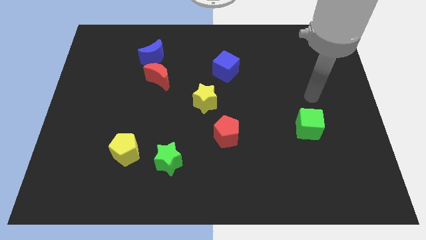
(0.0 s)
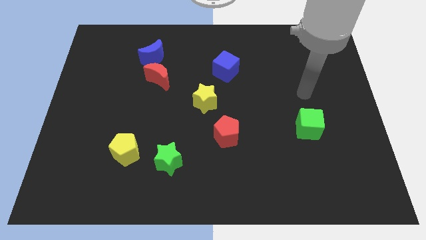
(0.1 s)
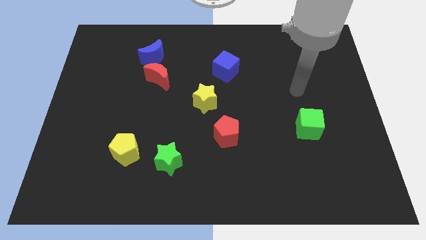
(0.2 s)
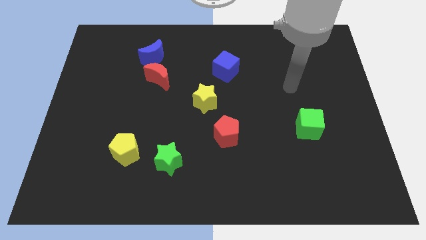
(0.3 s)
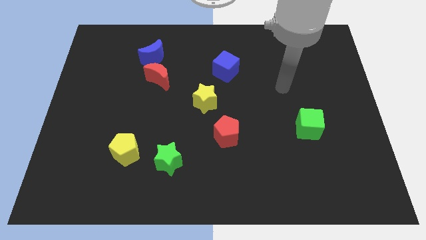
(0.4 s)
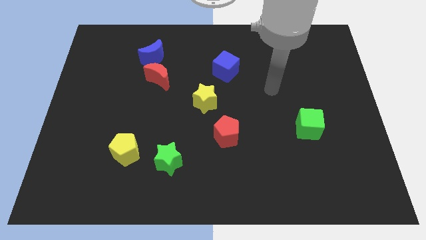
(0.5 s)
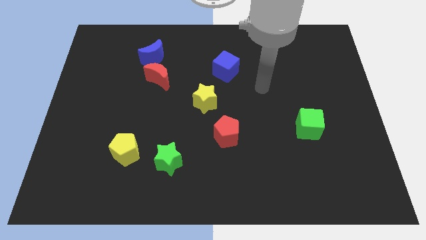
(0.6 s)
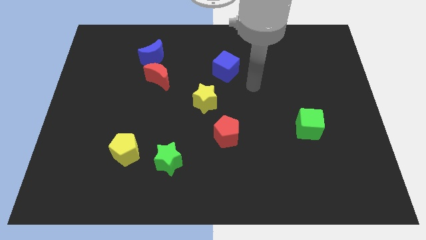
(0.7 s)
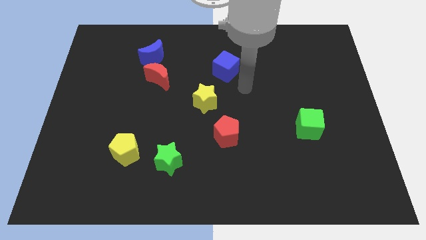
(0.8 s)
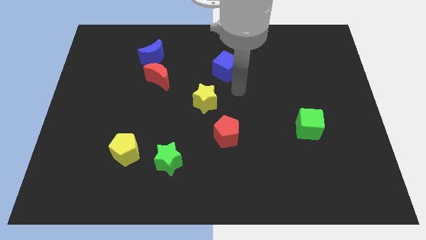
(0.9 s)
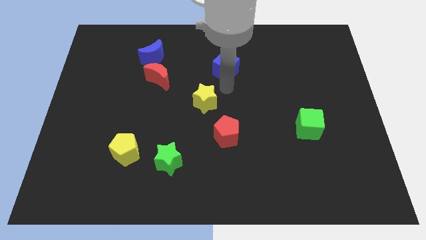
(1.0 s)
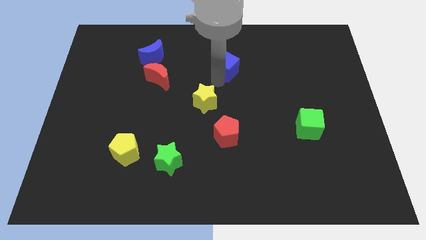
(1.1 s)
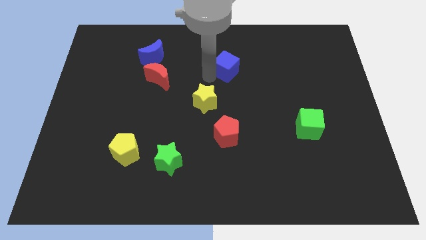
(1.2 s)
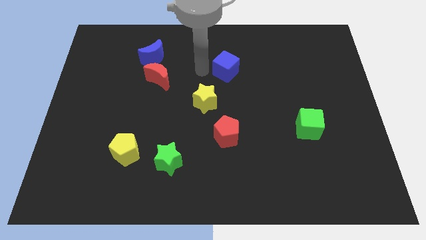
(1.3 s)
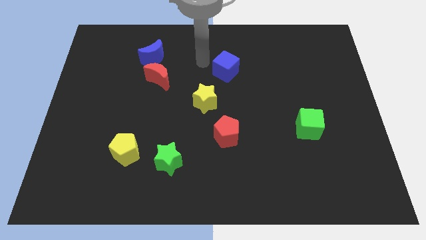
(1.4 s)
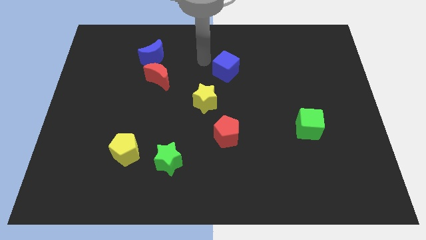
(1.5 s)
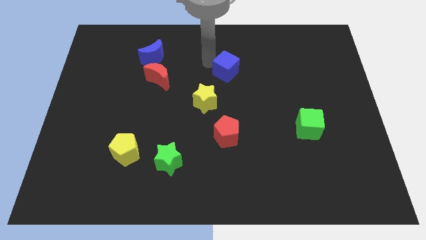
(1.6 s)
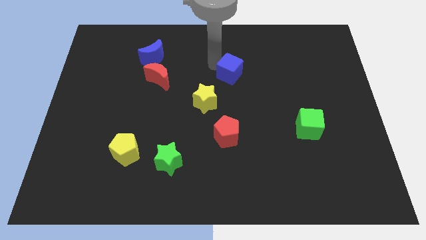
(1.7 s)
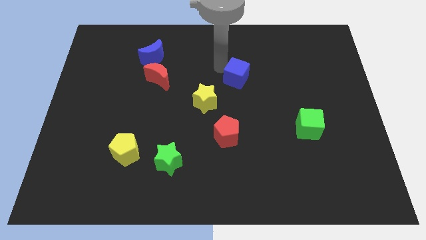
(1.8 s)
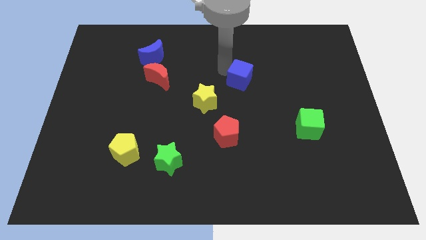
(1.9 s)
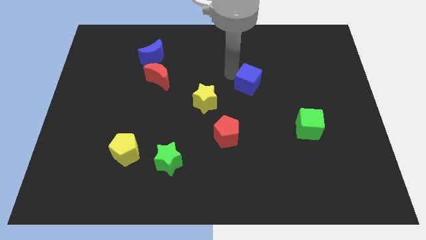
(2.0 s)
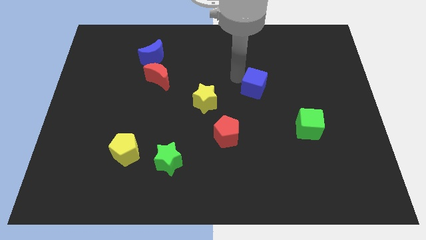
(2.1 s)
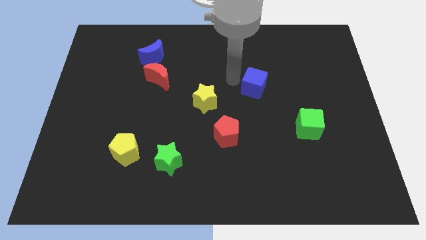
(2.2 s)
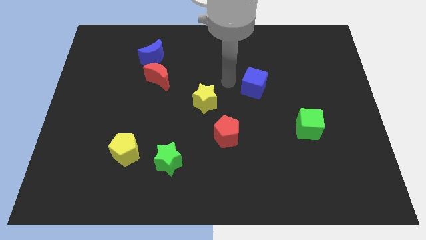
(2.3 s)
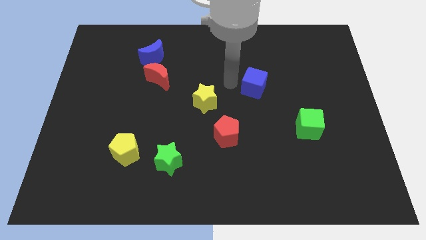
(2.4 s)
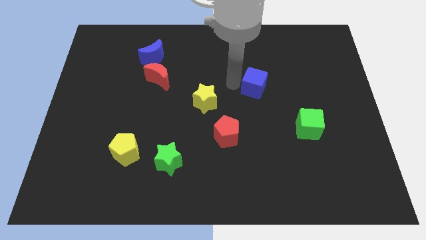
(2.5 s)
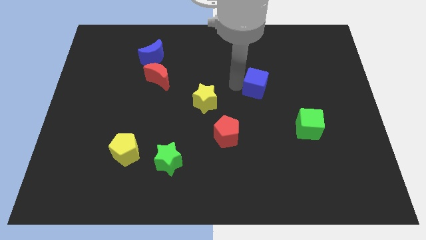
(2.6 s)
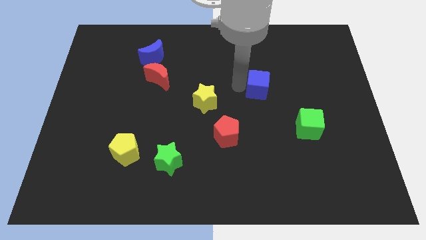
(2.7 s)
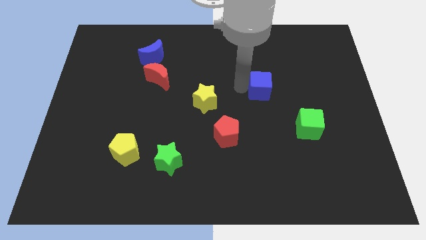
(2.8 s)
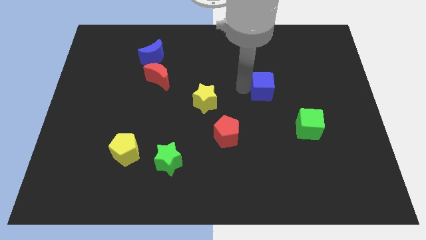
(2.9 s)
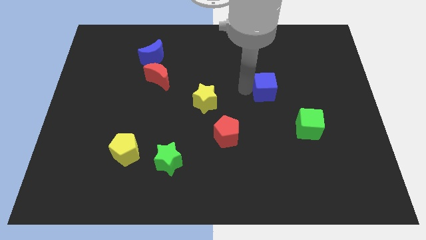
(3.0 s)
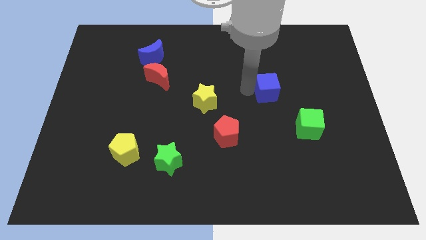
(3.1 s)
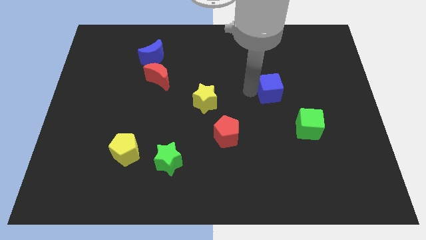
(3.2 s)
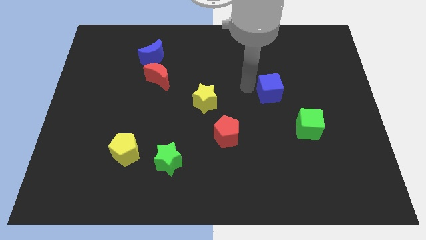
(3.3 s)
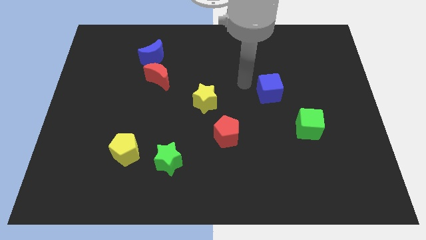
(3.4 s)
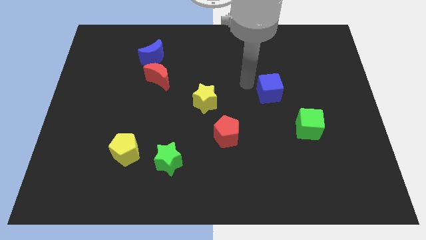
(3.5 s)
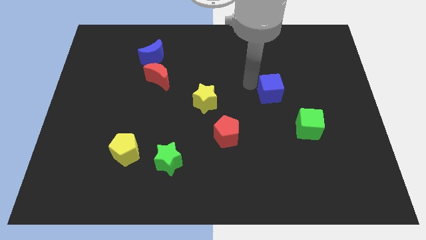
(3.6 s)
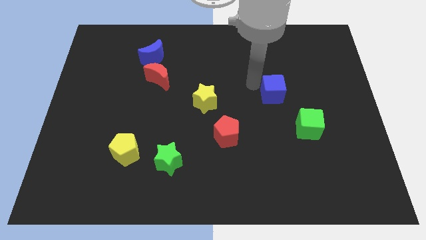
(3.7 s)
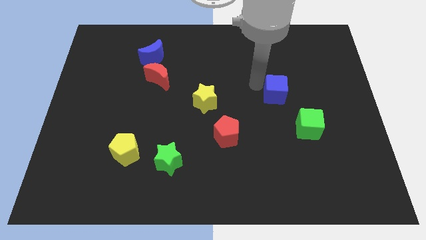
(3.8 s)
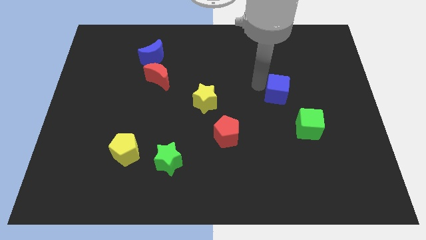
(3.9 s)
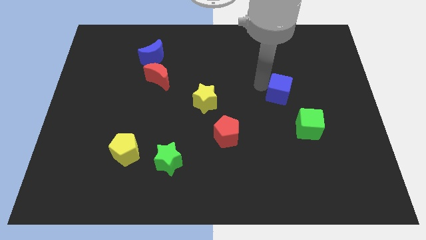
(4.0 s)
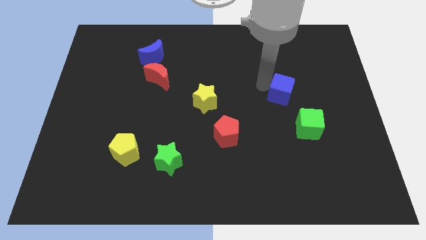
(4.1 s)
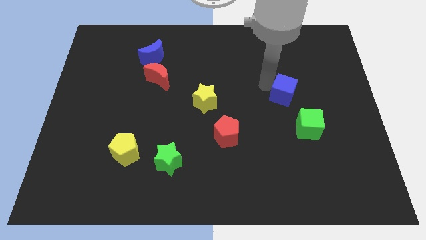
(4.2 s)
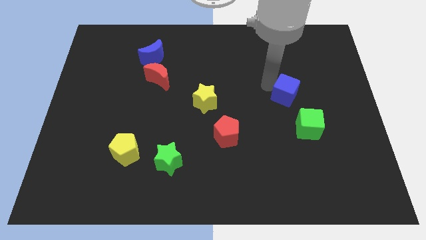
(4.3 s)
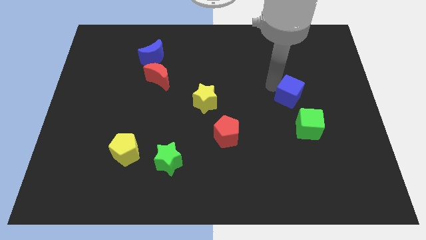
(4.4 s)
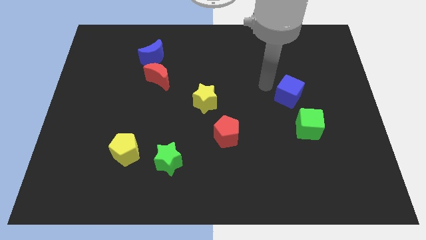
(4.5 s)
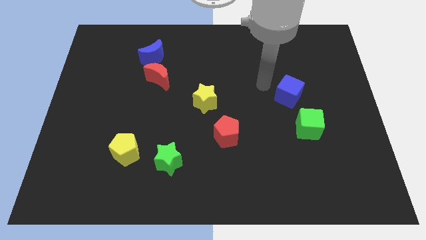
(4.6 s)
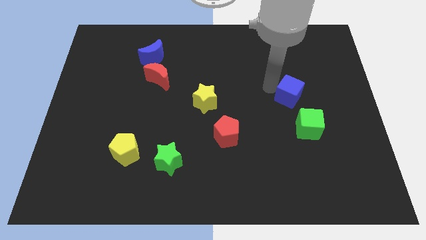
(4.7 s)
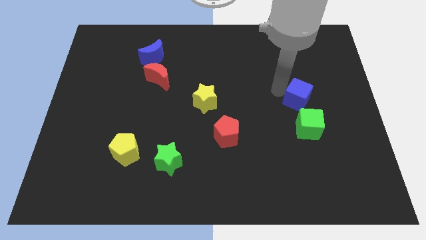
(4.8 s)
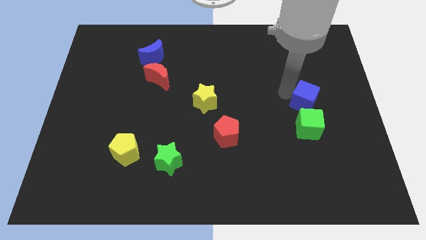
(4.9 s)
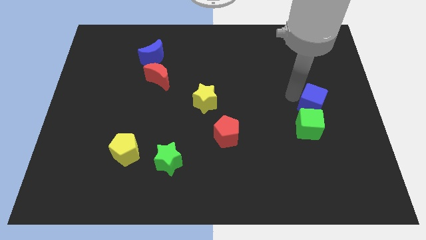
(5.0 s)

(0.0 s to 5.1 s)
put the blue cube diagonally up and to the right of the green cube

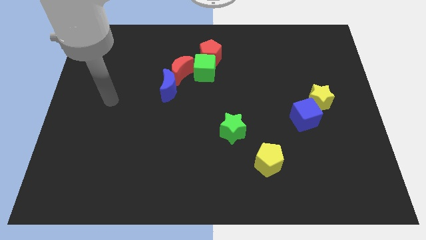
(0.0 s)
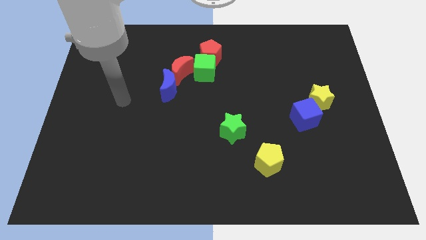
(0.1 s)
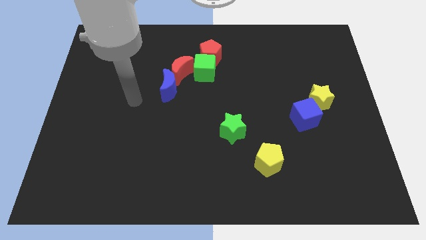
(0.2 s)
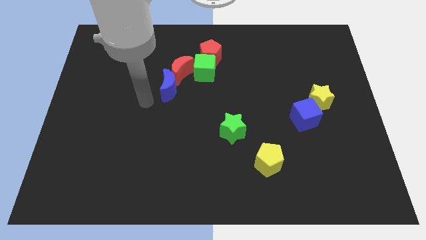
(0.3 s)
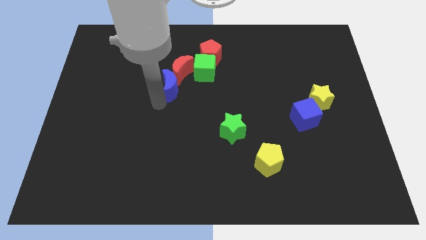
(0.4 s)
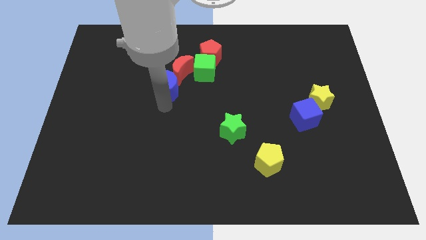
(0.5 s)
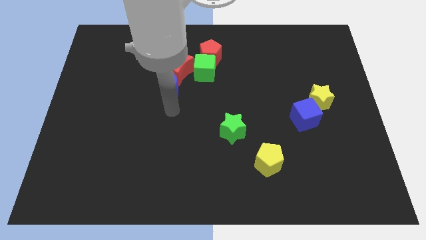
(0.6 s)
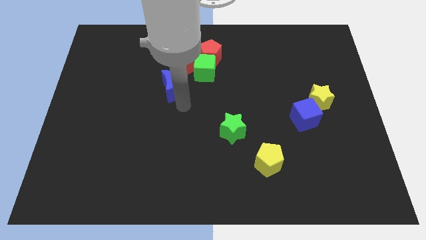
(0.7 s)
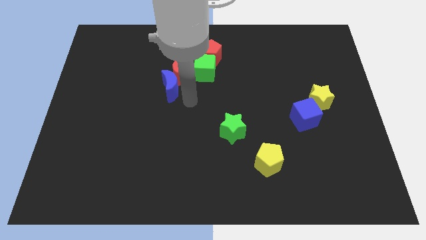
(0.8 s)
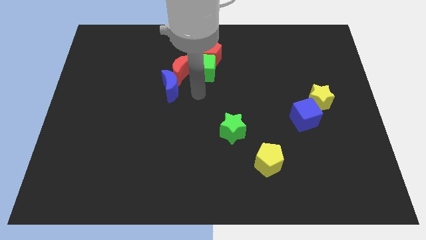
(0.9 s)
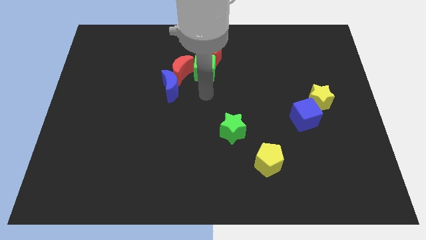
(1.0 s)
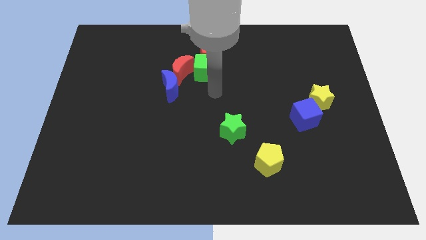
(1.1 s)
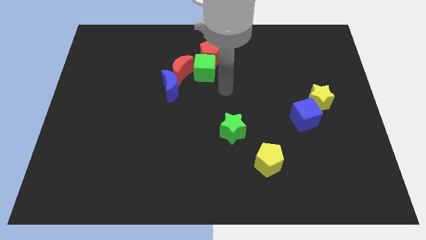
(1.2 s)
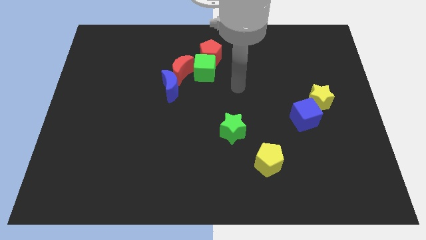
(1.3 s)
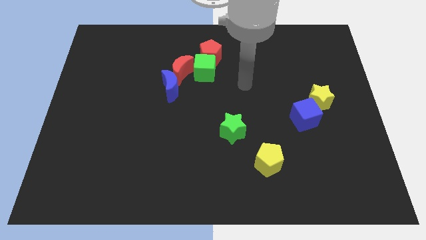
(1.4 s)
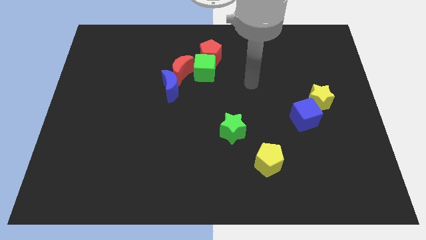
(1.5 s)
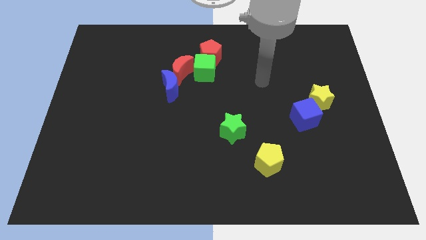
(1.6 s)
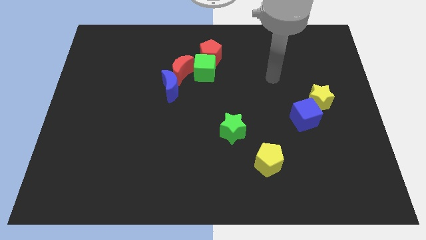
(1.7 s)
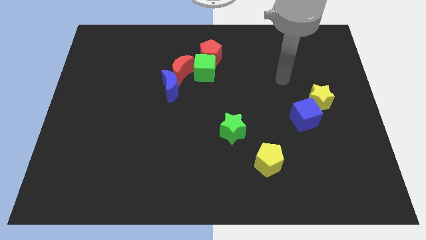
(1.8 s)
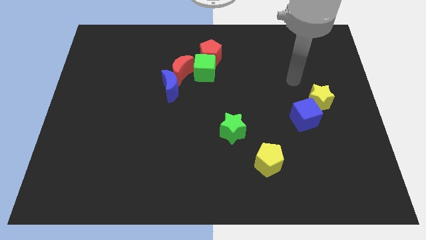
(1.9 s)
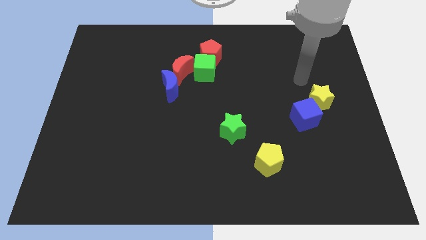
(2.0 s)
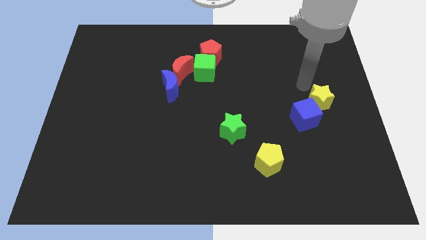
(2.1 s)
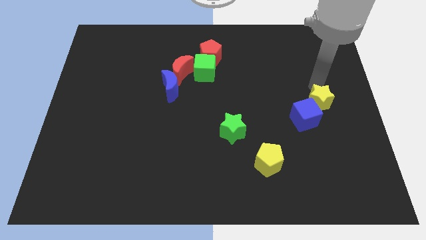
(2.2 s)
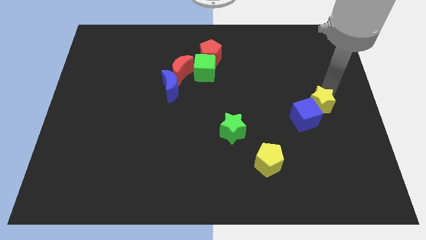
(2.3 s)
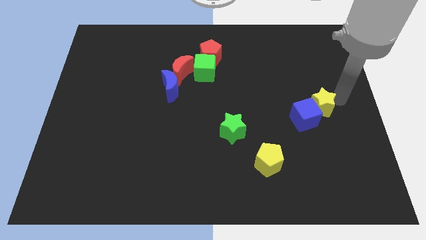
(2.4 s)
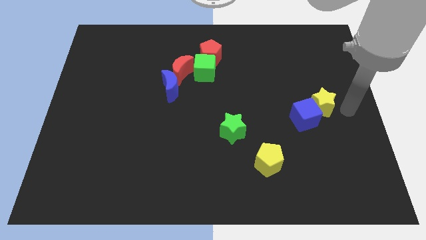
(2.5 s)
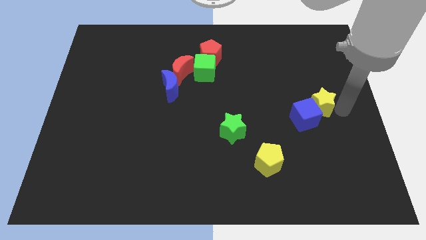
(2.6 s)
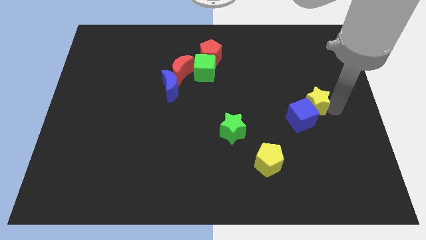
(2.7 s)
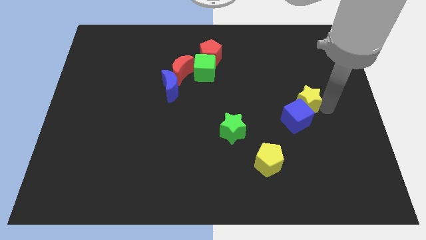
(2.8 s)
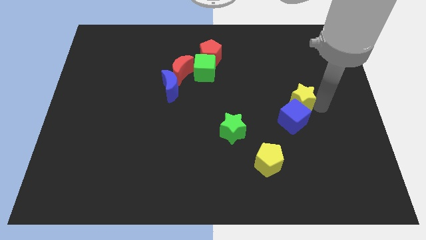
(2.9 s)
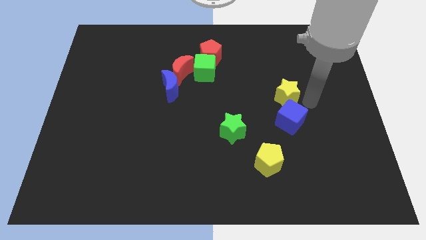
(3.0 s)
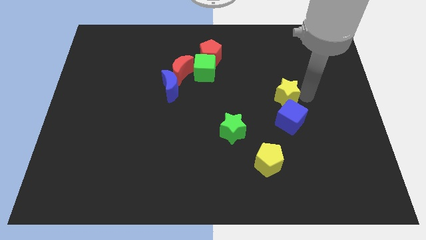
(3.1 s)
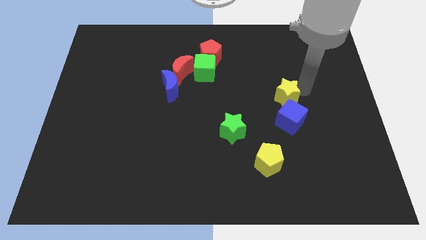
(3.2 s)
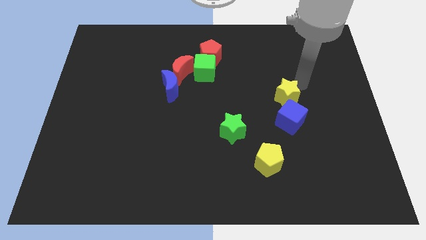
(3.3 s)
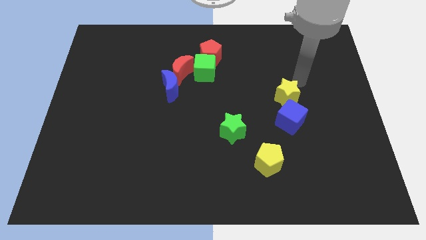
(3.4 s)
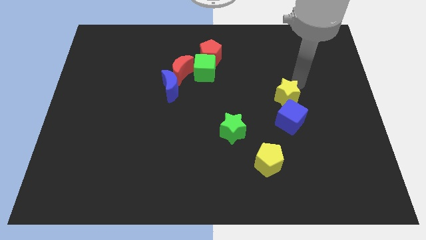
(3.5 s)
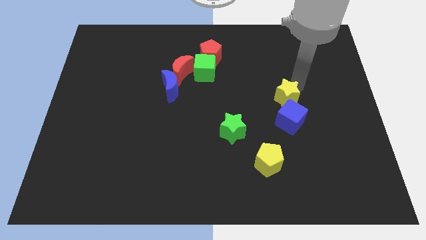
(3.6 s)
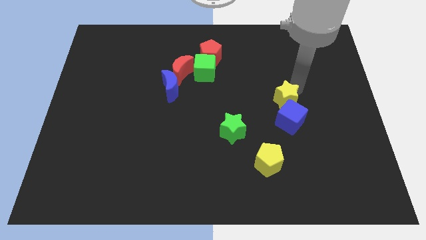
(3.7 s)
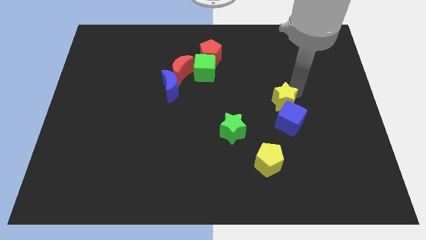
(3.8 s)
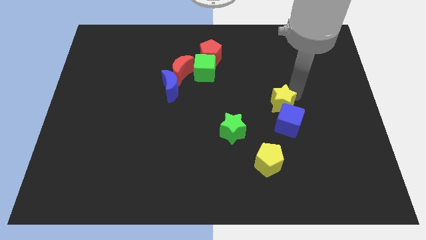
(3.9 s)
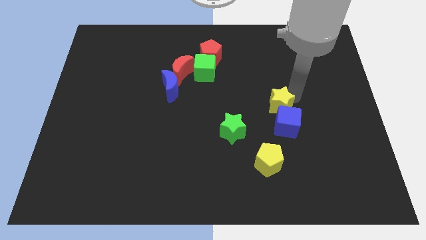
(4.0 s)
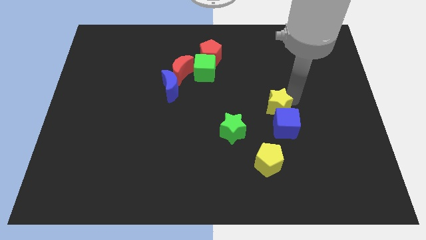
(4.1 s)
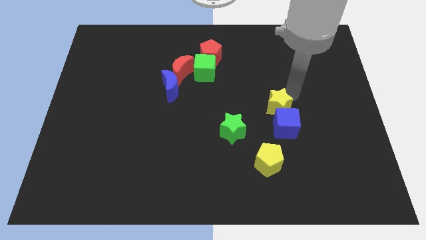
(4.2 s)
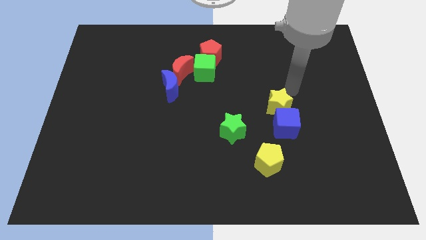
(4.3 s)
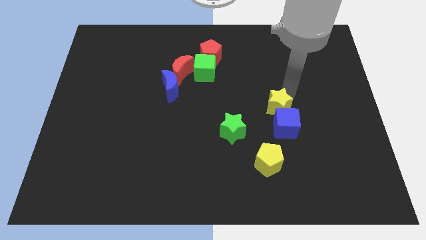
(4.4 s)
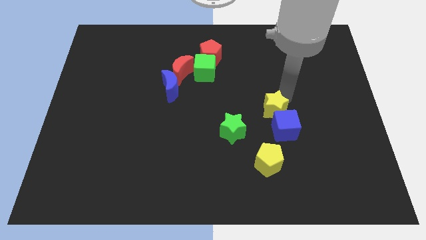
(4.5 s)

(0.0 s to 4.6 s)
put the yellow star above the yellow pentagon
